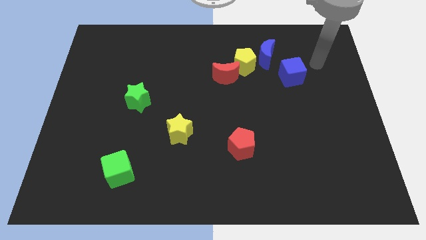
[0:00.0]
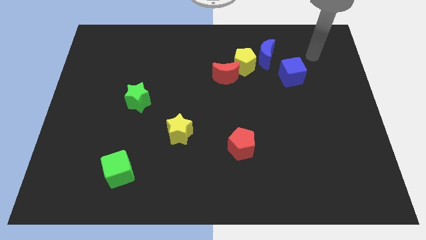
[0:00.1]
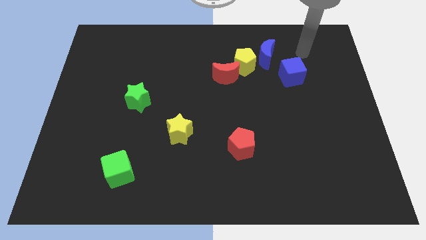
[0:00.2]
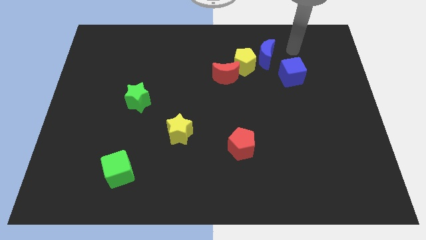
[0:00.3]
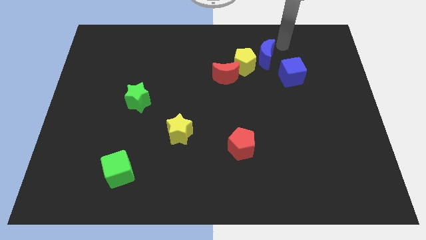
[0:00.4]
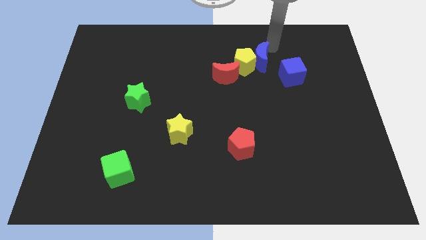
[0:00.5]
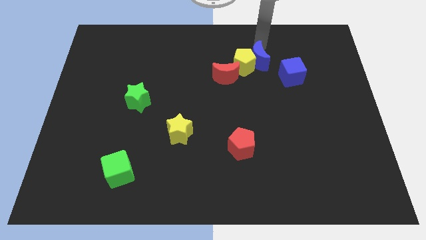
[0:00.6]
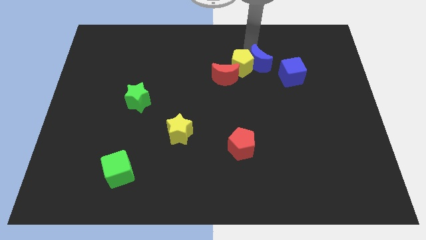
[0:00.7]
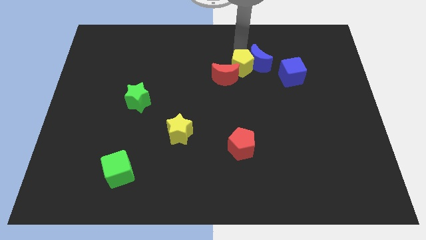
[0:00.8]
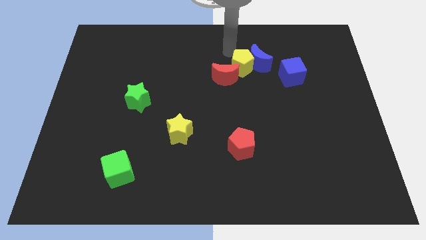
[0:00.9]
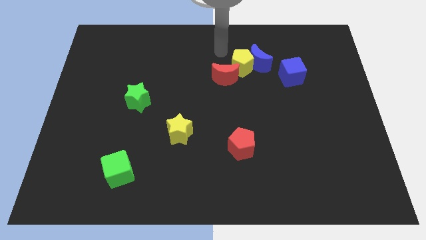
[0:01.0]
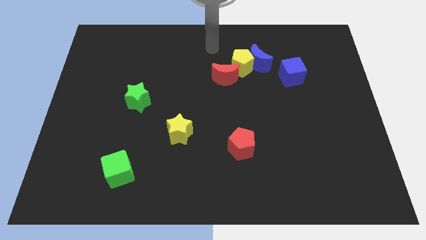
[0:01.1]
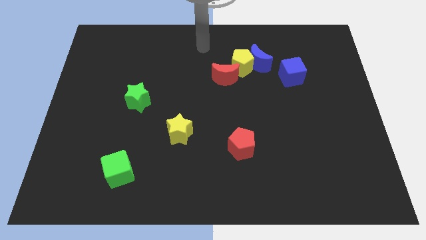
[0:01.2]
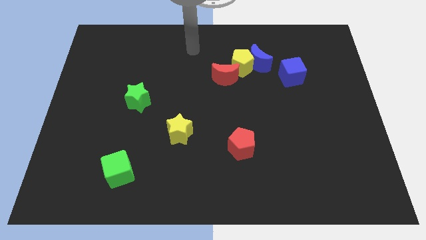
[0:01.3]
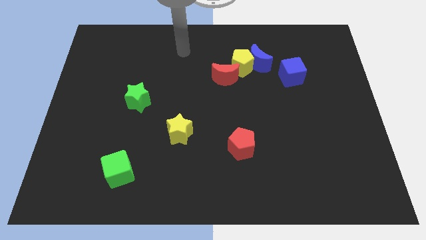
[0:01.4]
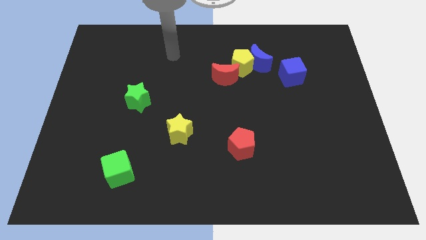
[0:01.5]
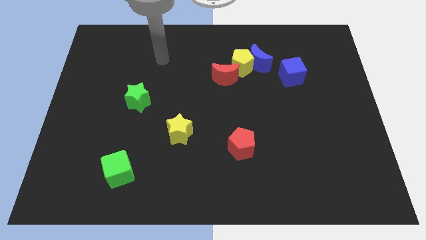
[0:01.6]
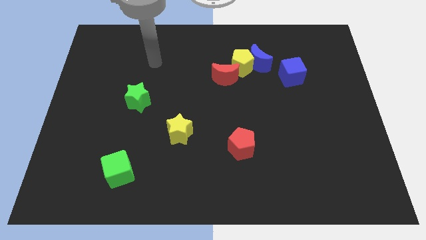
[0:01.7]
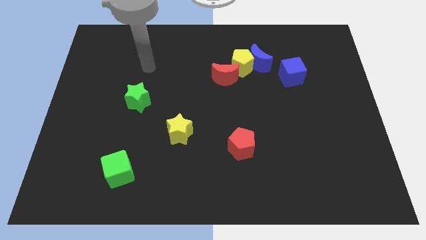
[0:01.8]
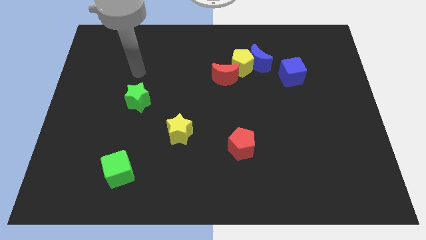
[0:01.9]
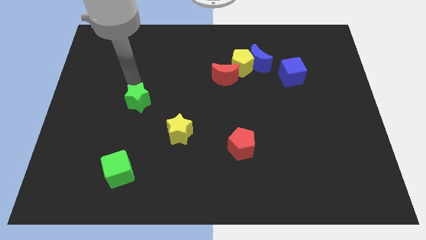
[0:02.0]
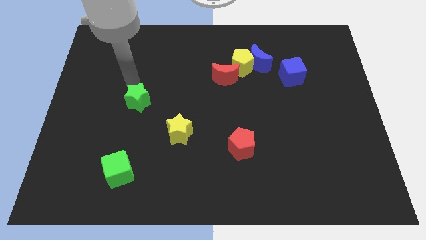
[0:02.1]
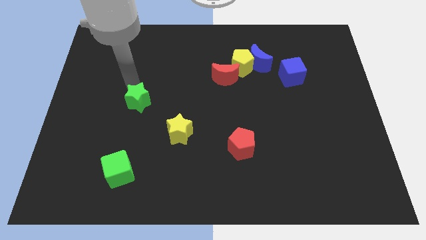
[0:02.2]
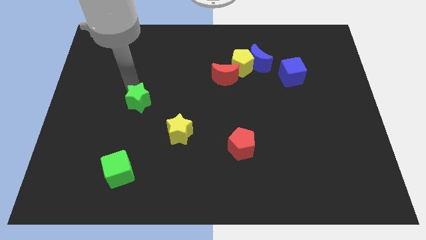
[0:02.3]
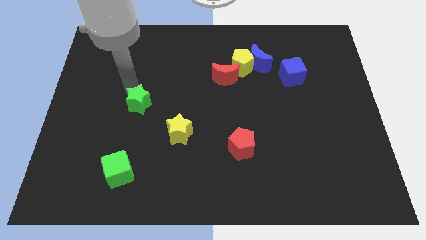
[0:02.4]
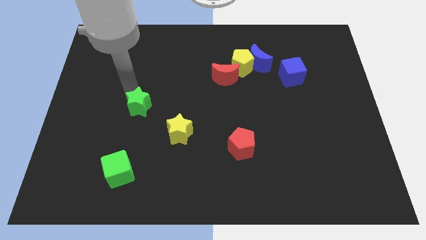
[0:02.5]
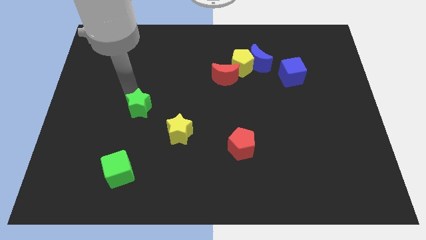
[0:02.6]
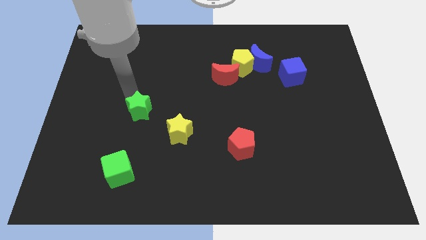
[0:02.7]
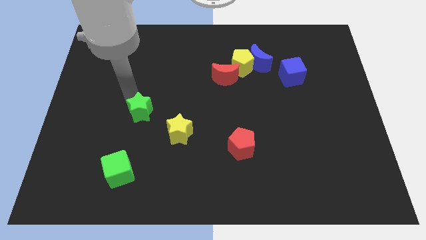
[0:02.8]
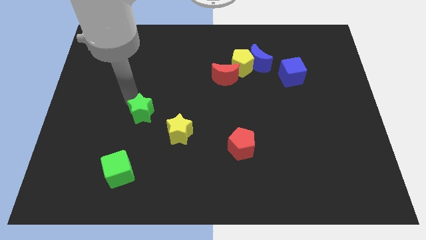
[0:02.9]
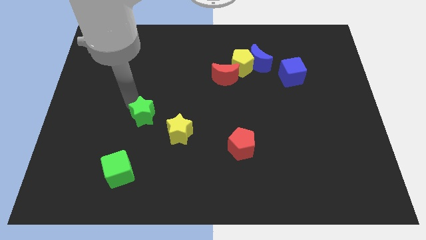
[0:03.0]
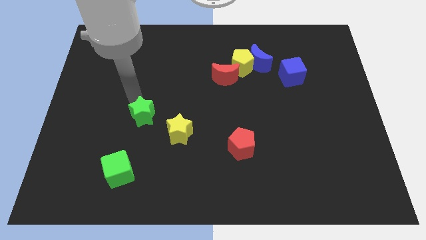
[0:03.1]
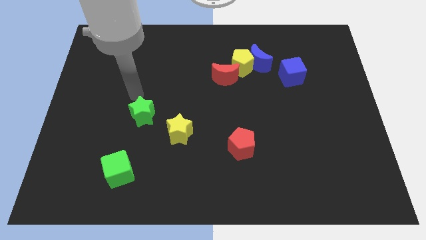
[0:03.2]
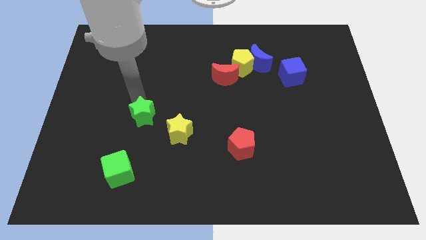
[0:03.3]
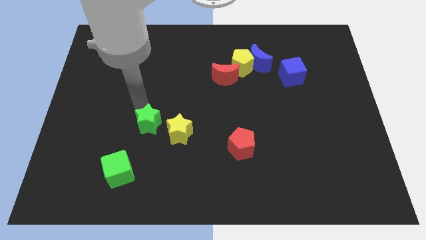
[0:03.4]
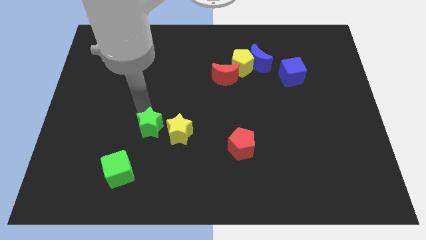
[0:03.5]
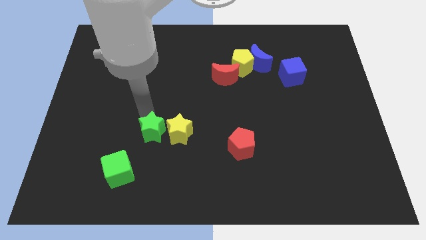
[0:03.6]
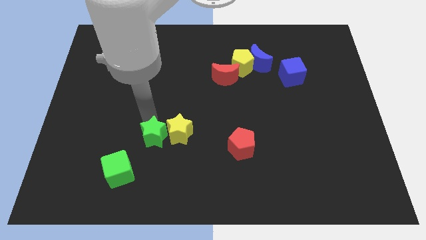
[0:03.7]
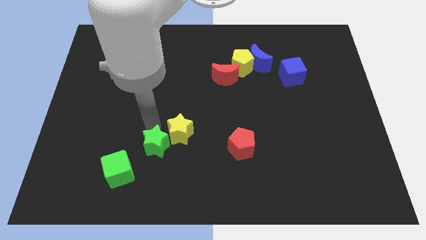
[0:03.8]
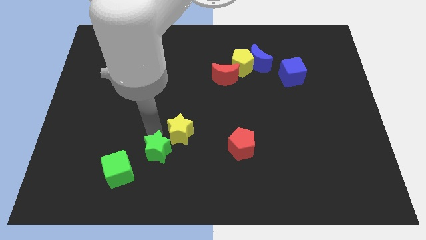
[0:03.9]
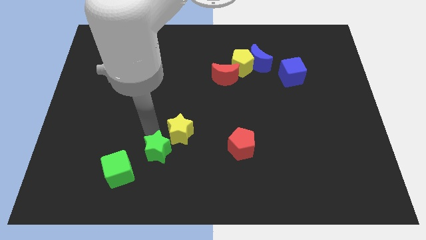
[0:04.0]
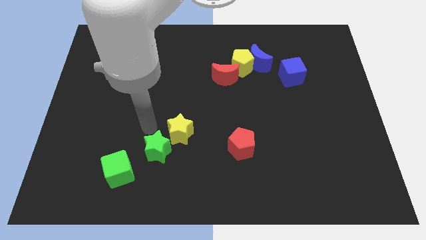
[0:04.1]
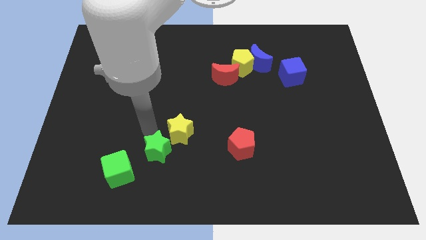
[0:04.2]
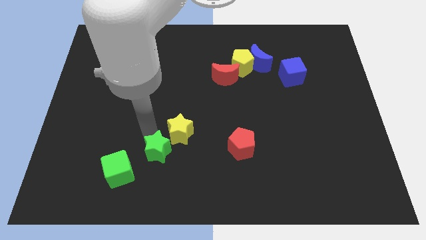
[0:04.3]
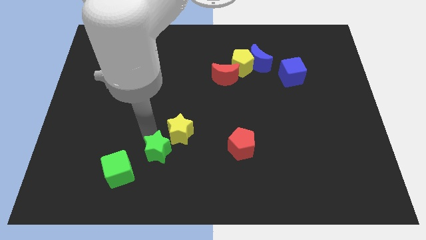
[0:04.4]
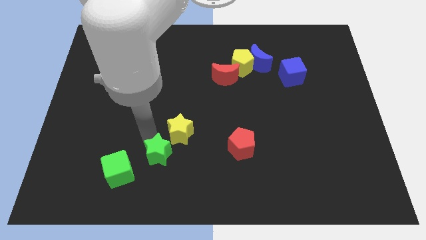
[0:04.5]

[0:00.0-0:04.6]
put the green star right of the green cube

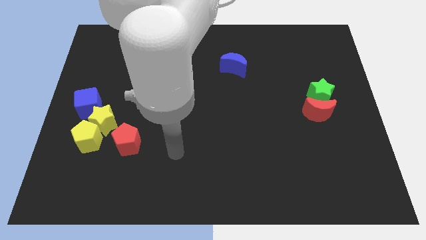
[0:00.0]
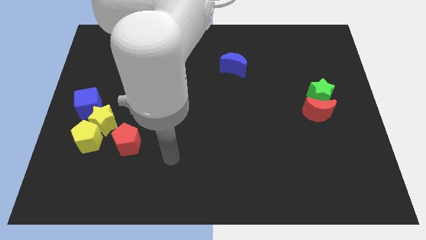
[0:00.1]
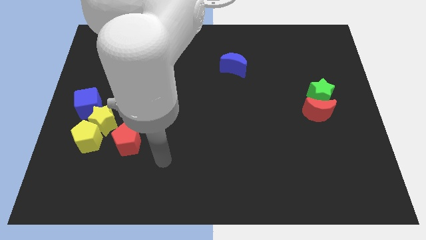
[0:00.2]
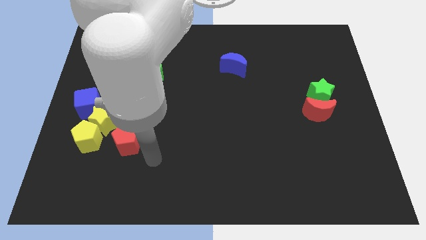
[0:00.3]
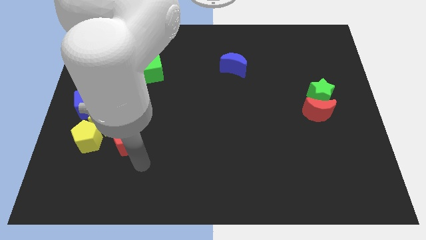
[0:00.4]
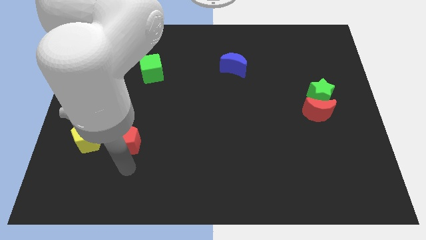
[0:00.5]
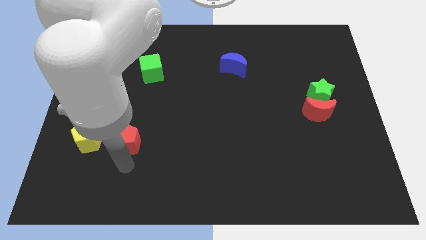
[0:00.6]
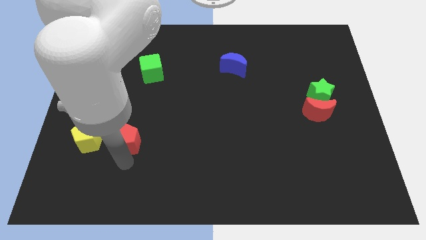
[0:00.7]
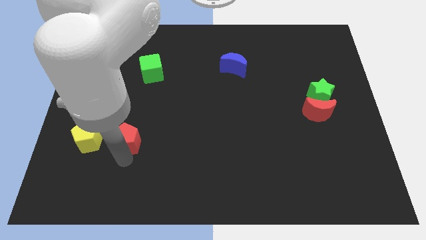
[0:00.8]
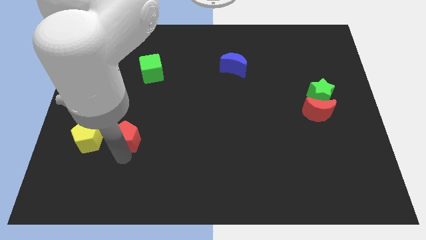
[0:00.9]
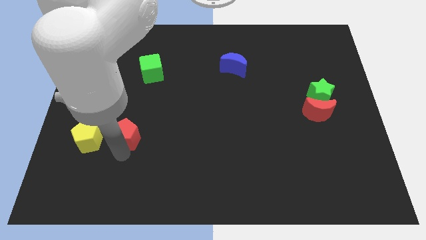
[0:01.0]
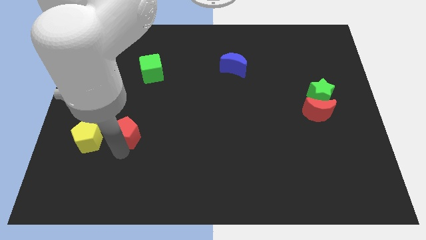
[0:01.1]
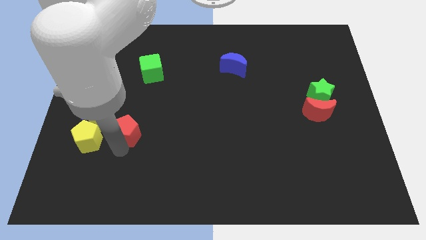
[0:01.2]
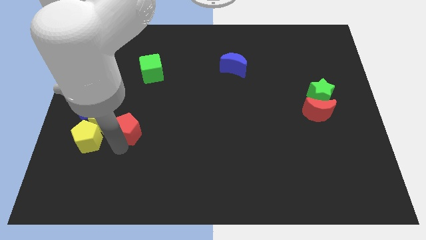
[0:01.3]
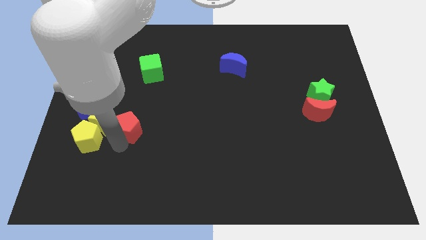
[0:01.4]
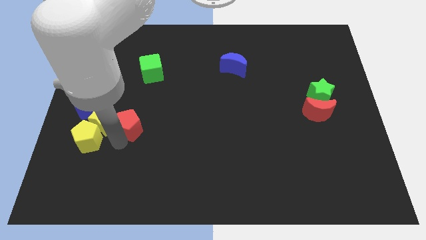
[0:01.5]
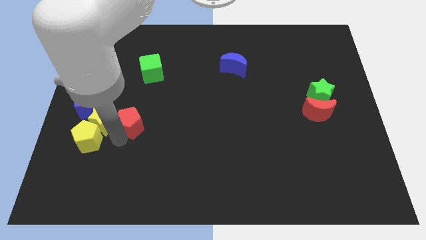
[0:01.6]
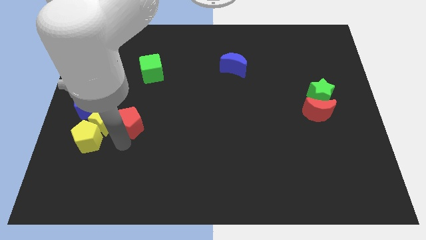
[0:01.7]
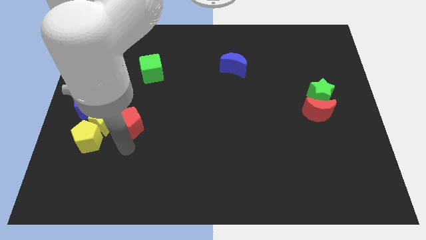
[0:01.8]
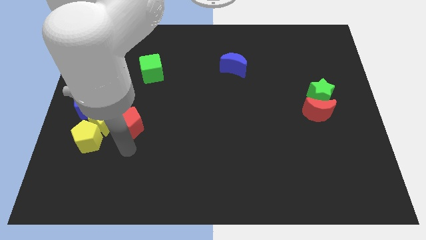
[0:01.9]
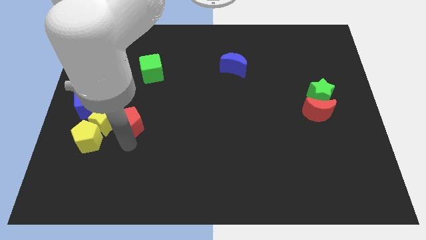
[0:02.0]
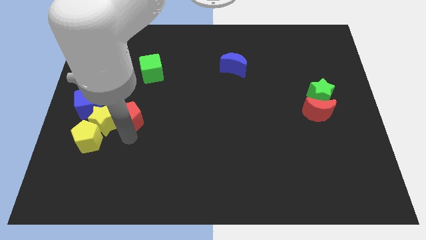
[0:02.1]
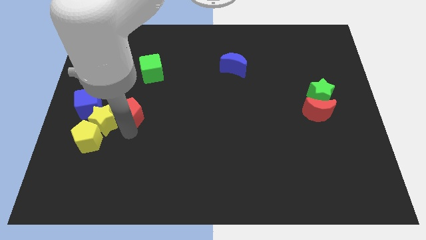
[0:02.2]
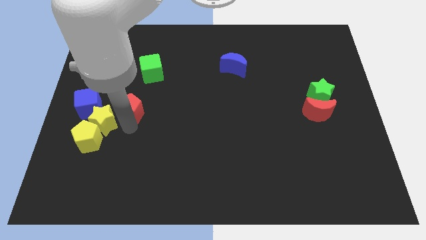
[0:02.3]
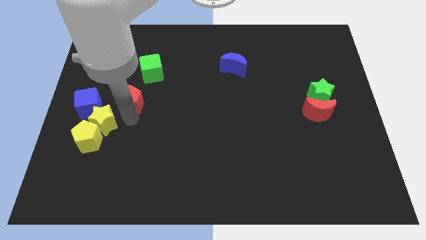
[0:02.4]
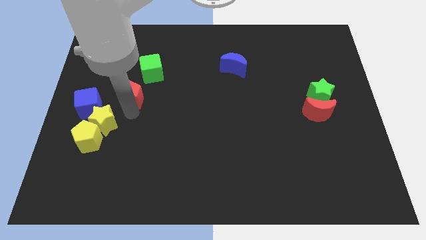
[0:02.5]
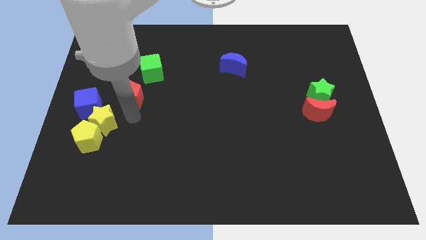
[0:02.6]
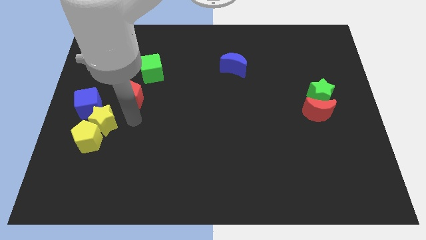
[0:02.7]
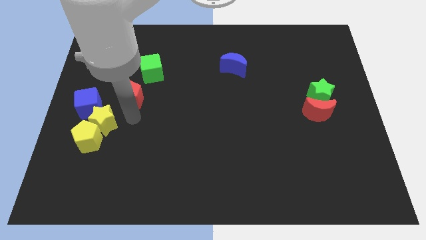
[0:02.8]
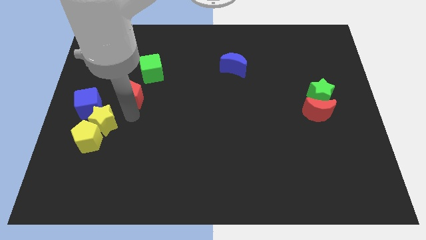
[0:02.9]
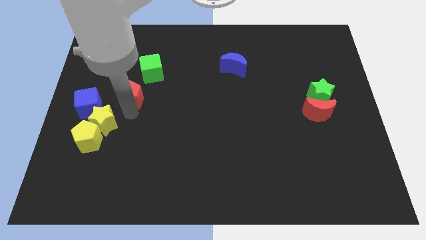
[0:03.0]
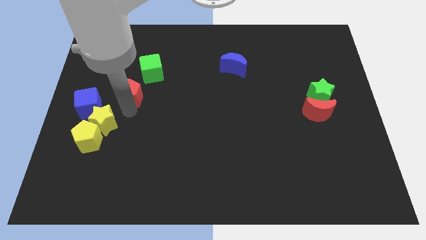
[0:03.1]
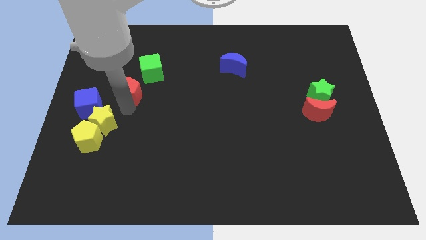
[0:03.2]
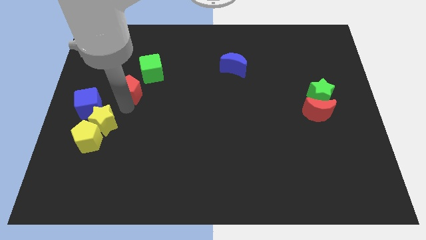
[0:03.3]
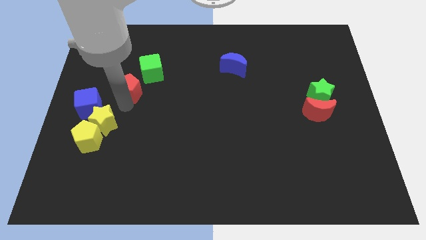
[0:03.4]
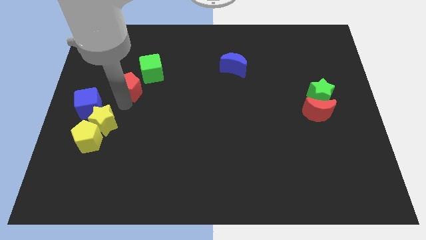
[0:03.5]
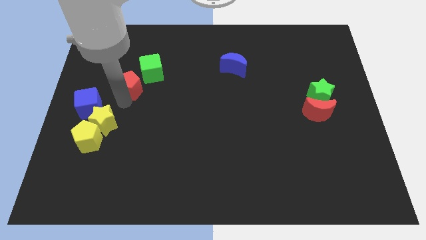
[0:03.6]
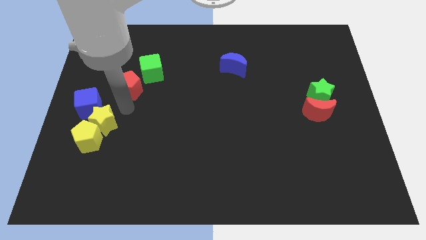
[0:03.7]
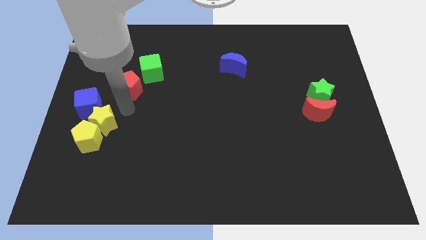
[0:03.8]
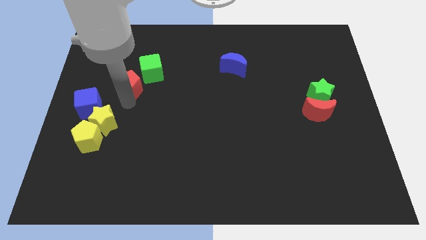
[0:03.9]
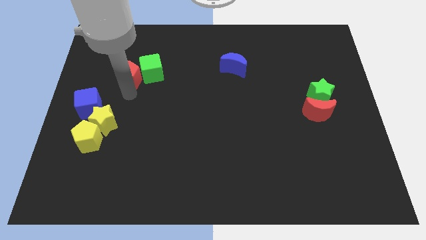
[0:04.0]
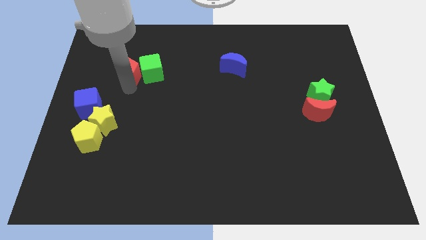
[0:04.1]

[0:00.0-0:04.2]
push the red pentagon diagonally up and to the left of the green cube
